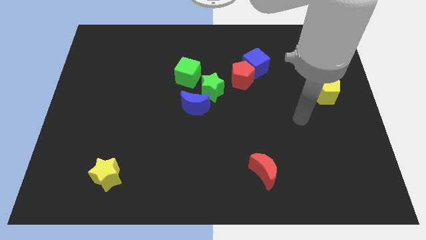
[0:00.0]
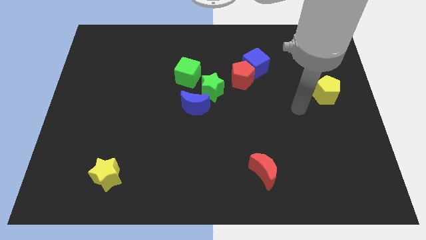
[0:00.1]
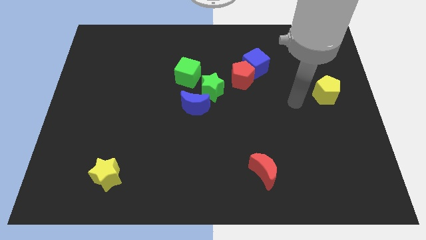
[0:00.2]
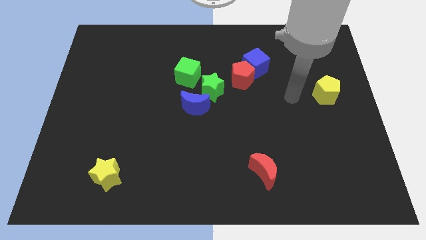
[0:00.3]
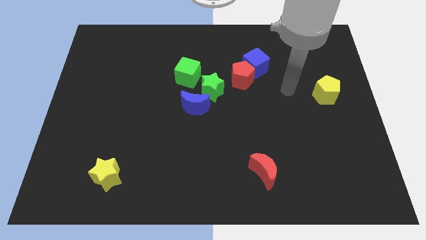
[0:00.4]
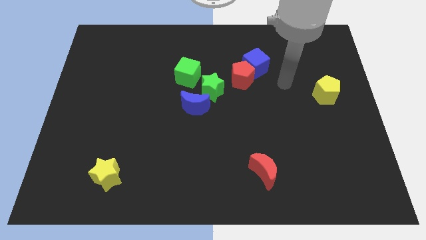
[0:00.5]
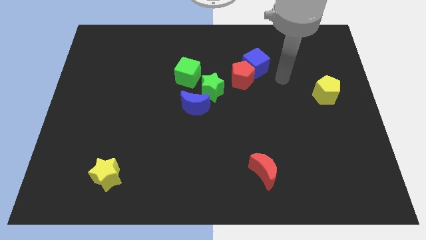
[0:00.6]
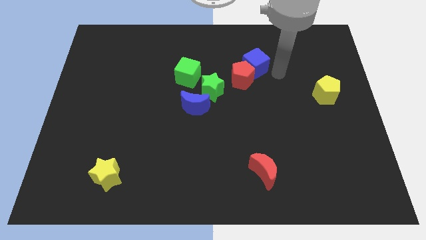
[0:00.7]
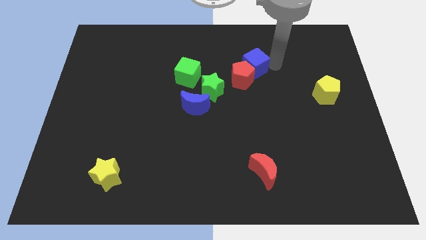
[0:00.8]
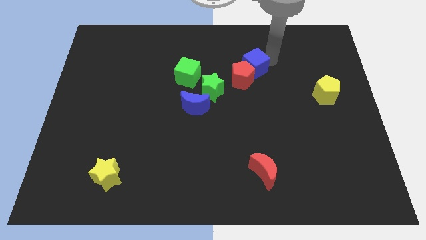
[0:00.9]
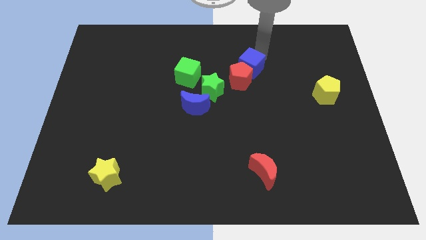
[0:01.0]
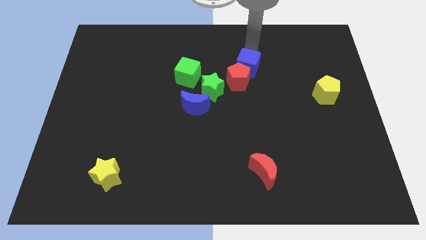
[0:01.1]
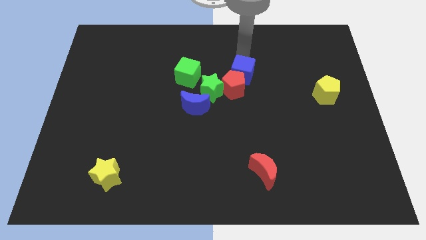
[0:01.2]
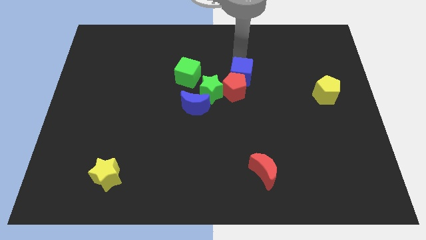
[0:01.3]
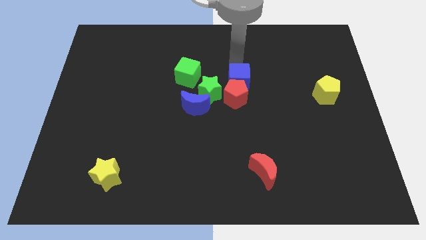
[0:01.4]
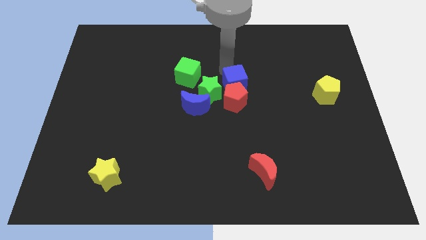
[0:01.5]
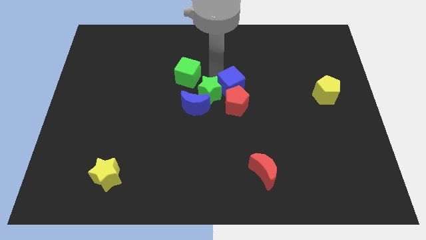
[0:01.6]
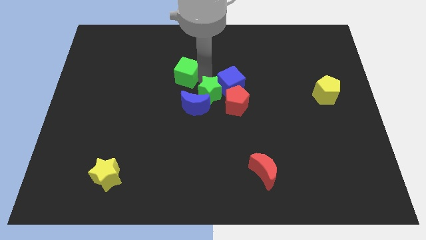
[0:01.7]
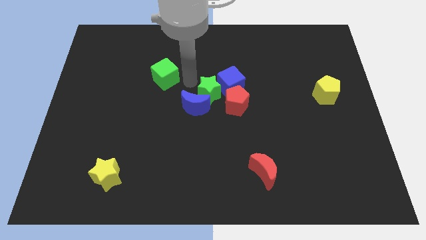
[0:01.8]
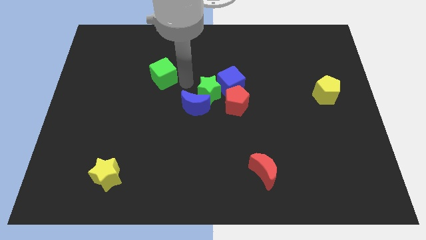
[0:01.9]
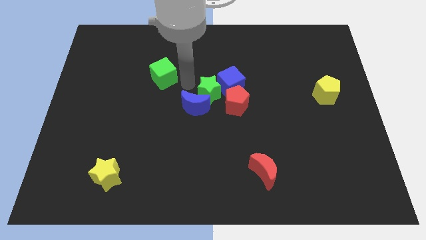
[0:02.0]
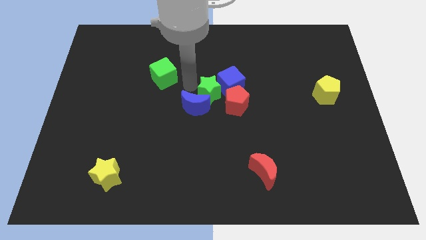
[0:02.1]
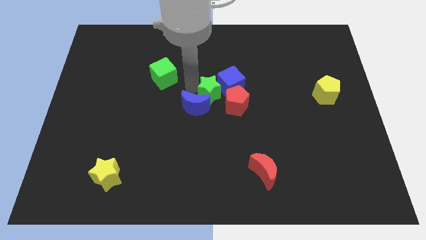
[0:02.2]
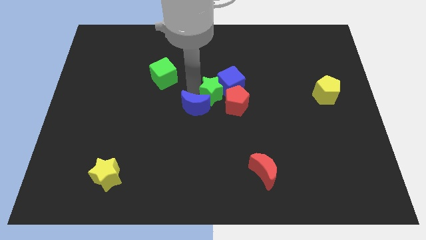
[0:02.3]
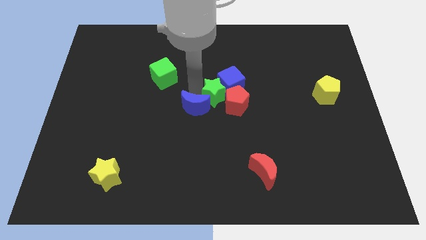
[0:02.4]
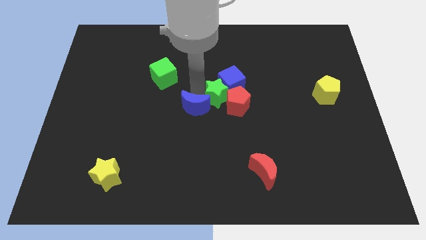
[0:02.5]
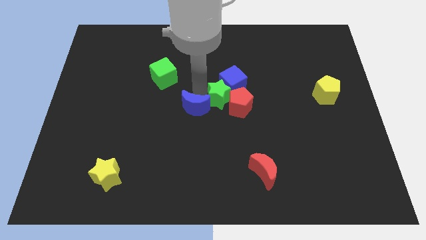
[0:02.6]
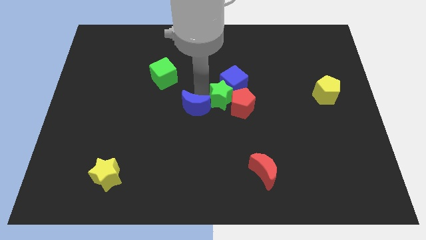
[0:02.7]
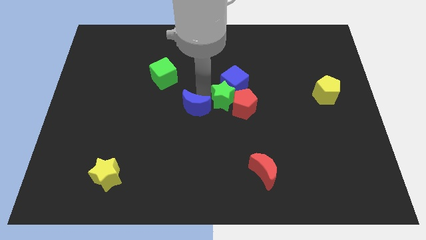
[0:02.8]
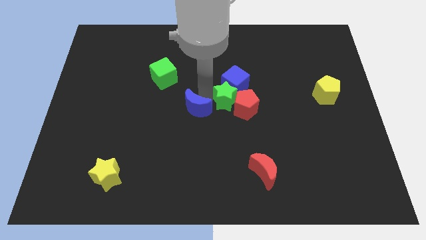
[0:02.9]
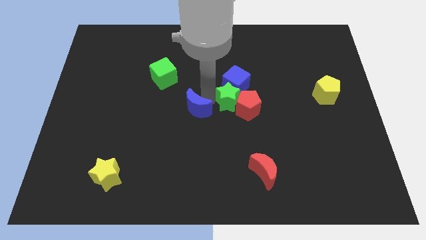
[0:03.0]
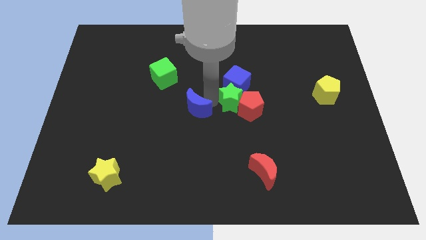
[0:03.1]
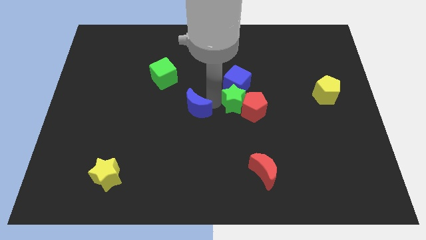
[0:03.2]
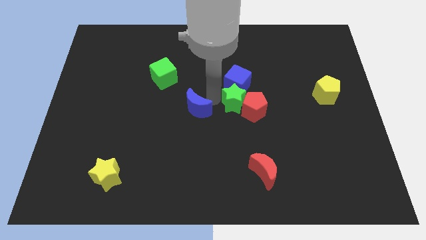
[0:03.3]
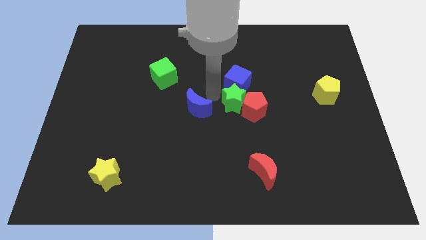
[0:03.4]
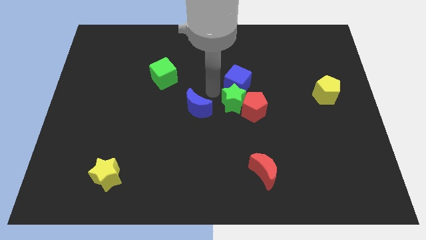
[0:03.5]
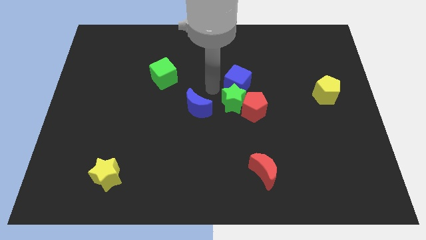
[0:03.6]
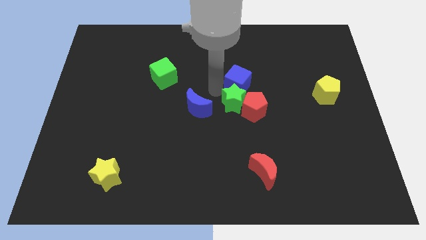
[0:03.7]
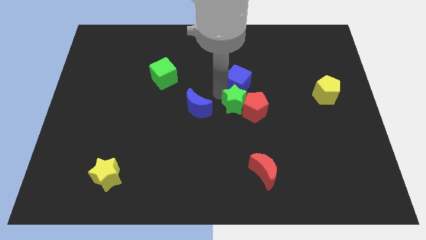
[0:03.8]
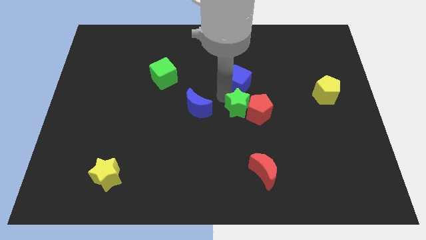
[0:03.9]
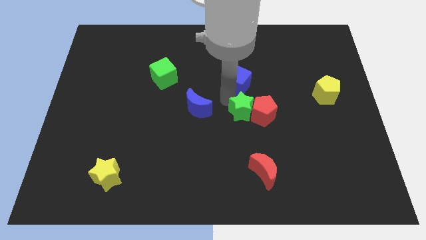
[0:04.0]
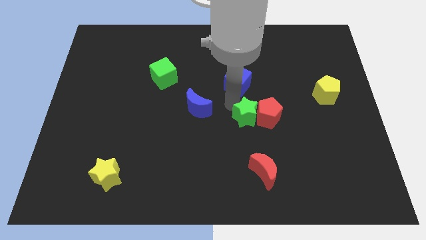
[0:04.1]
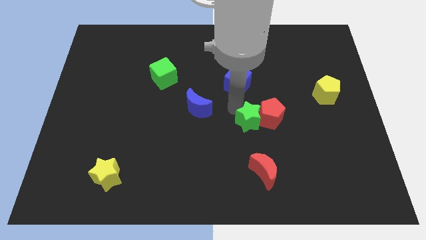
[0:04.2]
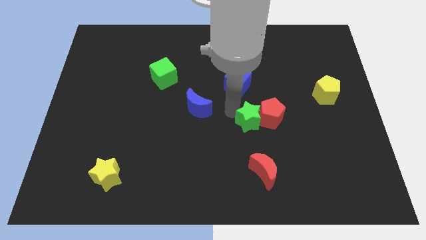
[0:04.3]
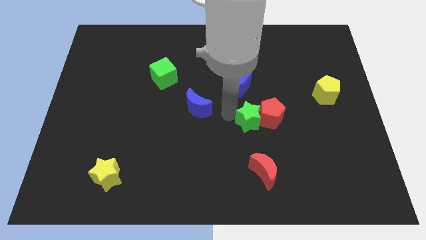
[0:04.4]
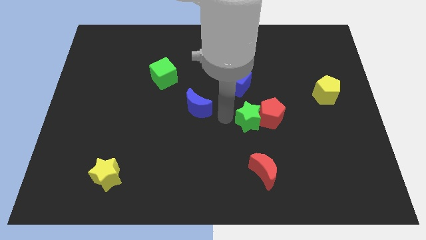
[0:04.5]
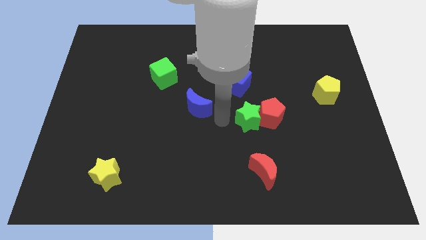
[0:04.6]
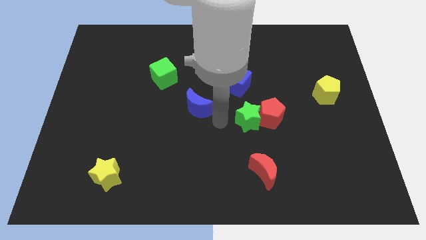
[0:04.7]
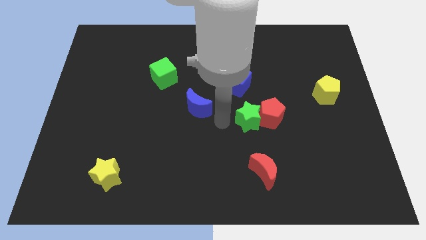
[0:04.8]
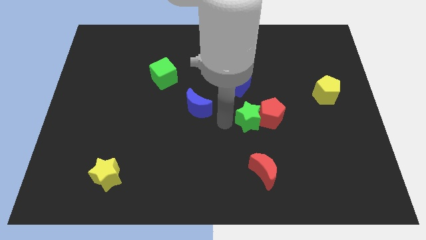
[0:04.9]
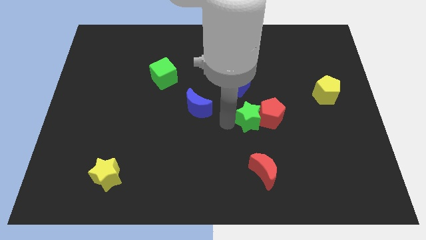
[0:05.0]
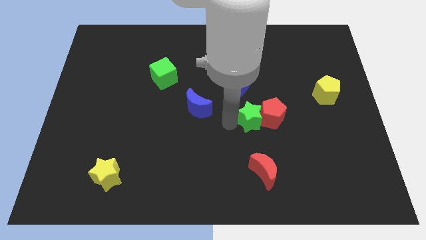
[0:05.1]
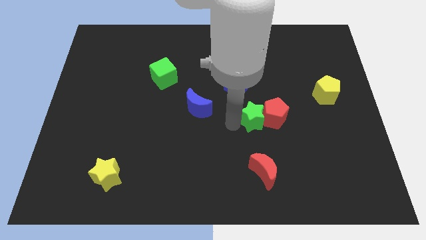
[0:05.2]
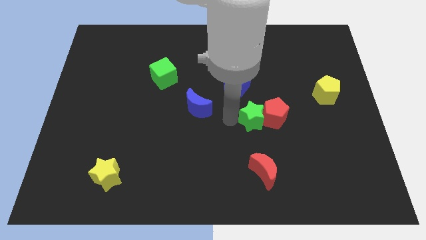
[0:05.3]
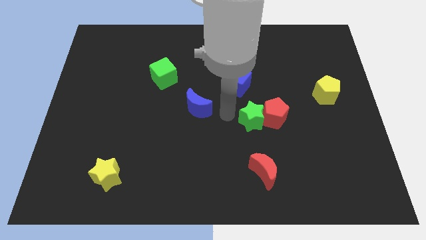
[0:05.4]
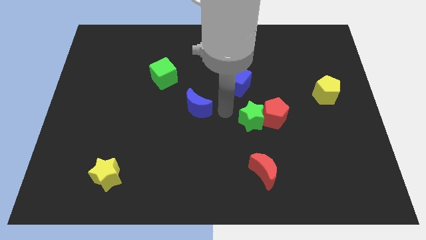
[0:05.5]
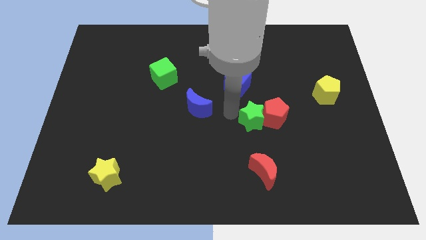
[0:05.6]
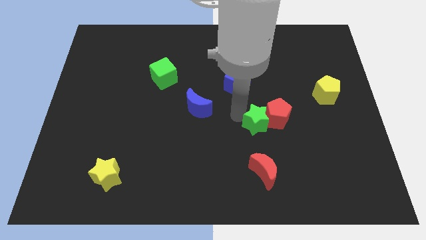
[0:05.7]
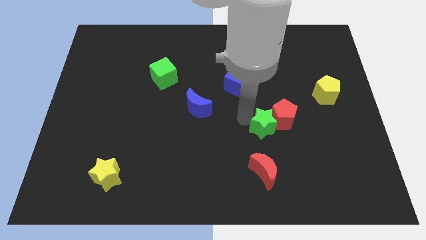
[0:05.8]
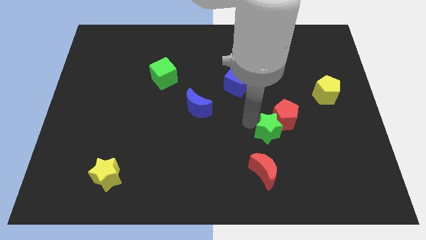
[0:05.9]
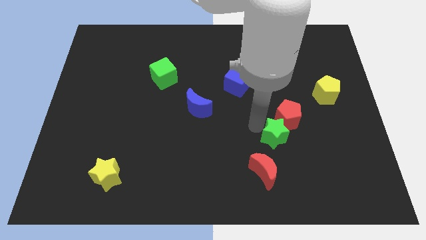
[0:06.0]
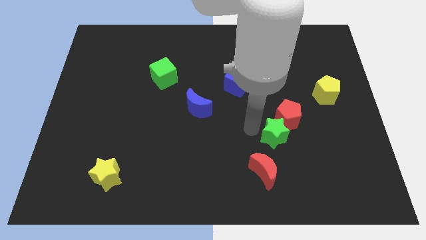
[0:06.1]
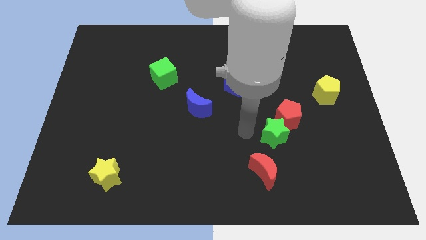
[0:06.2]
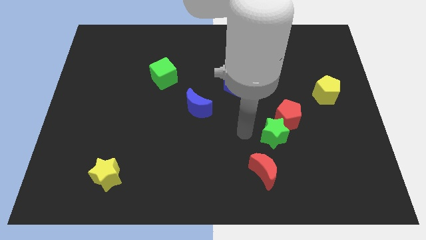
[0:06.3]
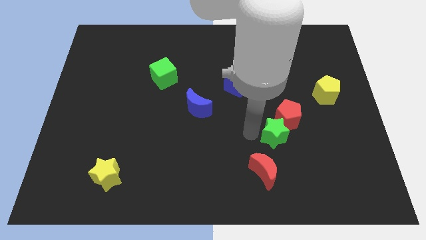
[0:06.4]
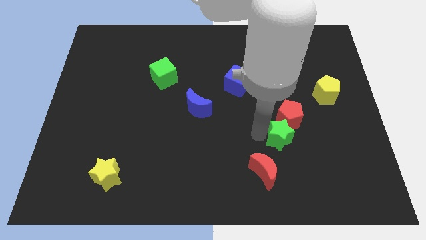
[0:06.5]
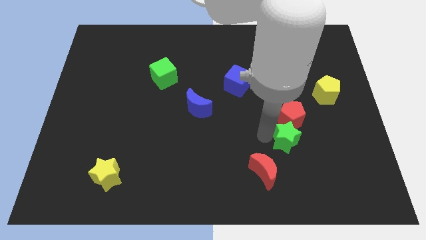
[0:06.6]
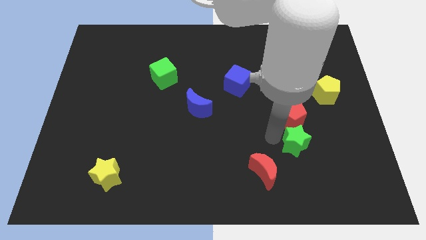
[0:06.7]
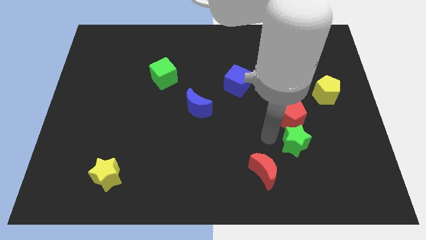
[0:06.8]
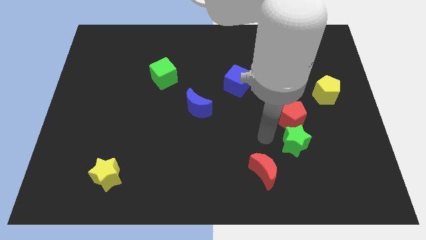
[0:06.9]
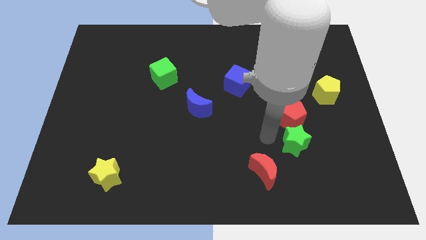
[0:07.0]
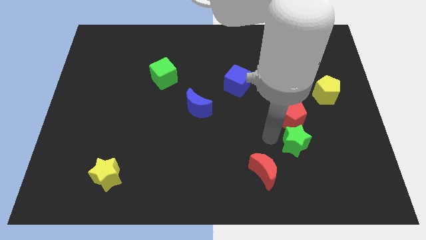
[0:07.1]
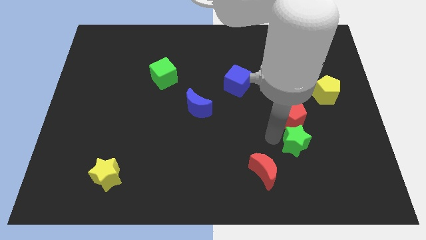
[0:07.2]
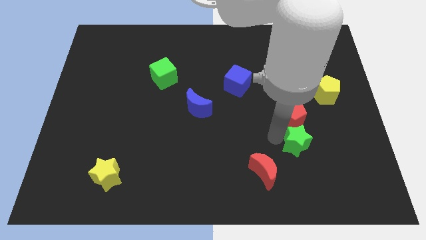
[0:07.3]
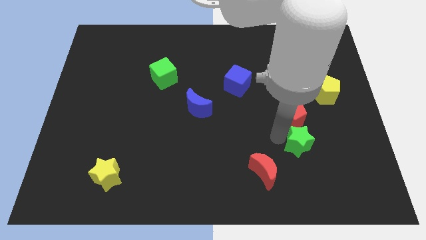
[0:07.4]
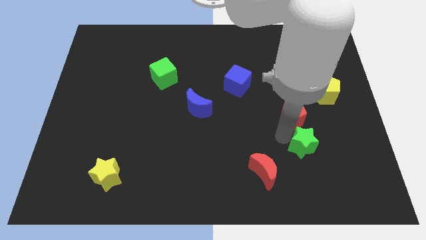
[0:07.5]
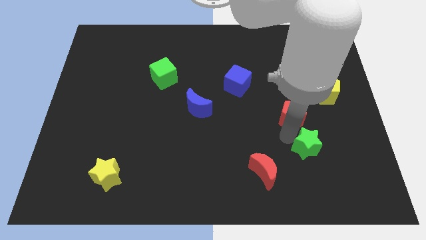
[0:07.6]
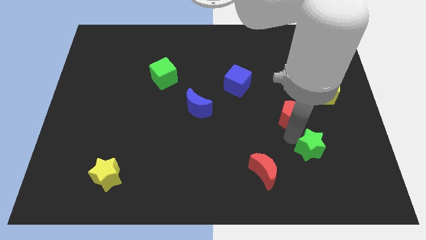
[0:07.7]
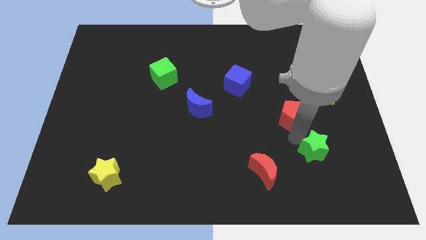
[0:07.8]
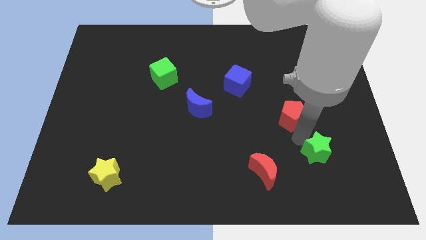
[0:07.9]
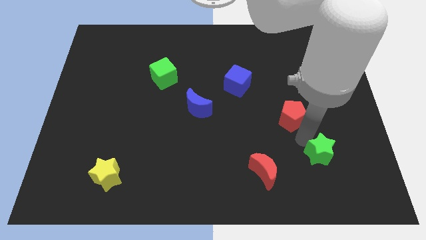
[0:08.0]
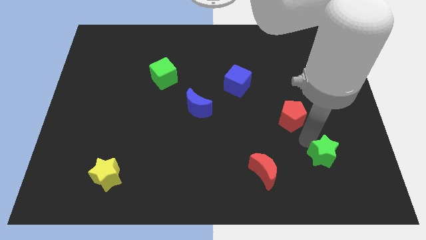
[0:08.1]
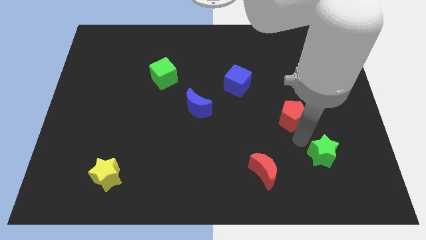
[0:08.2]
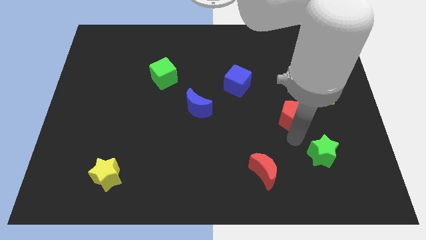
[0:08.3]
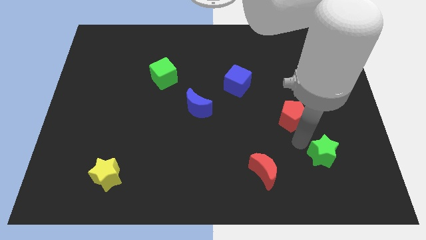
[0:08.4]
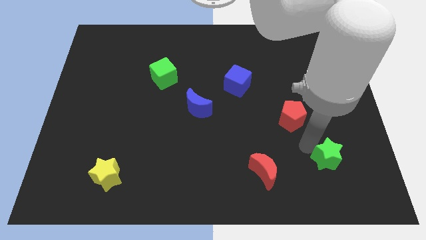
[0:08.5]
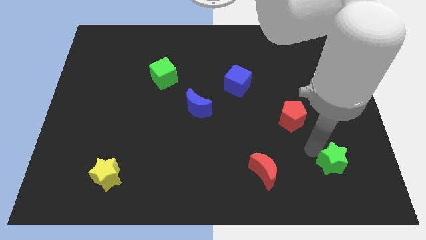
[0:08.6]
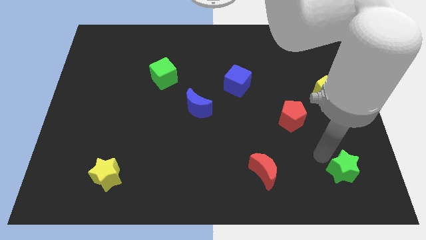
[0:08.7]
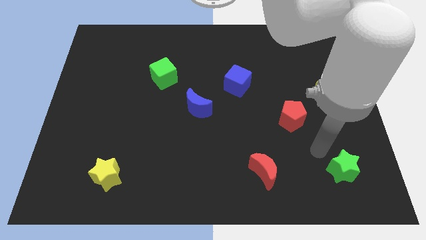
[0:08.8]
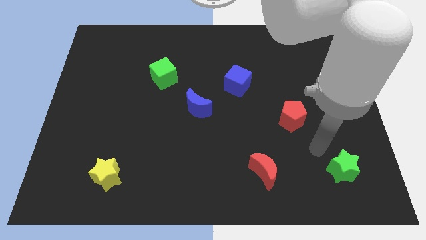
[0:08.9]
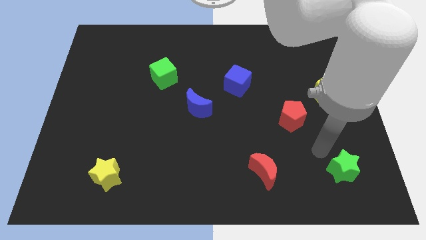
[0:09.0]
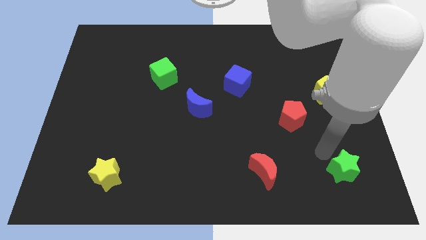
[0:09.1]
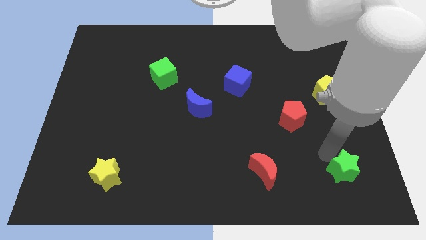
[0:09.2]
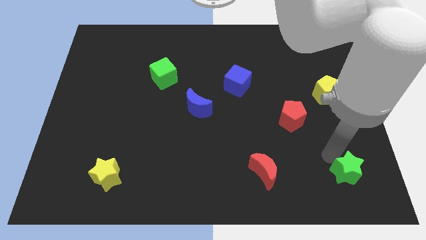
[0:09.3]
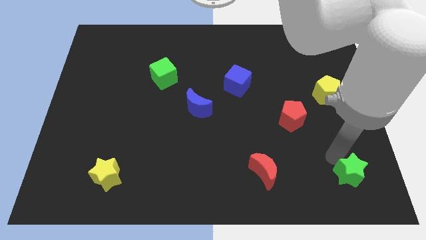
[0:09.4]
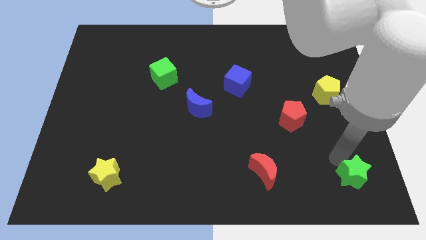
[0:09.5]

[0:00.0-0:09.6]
push the green star to the bottom right of the board
